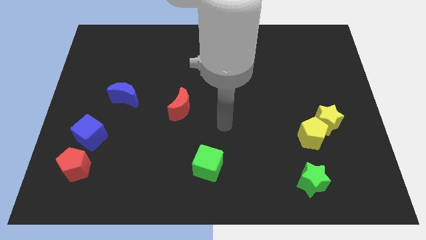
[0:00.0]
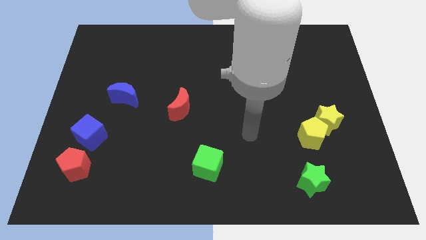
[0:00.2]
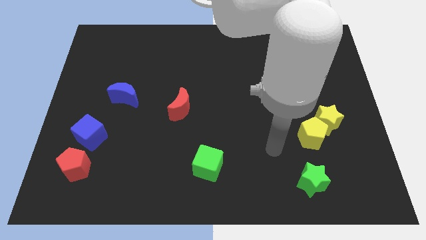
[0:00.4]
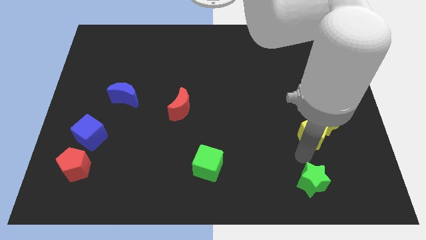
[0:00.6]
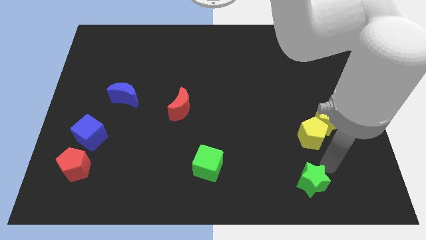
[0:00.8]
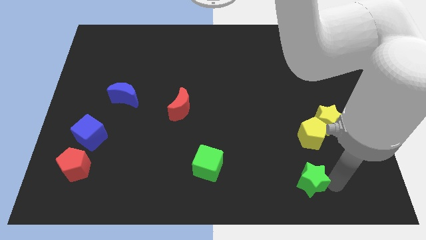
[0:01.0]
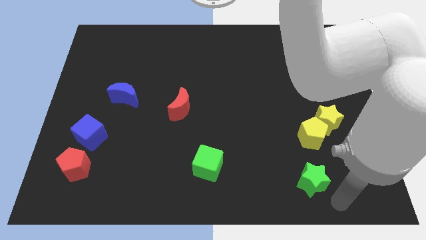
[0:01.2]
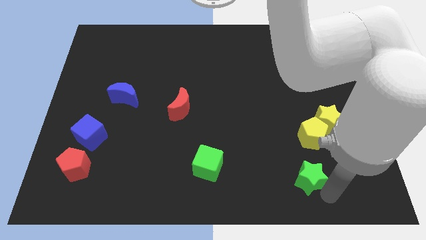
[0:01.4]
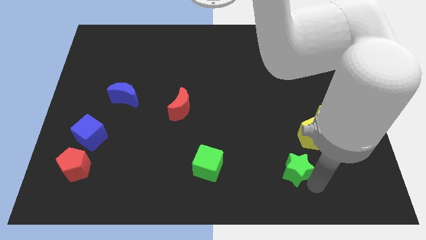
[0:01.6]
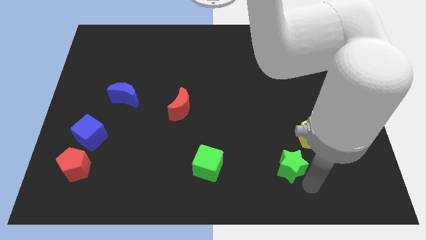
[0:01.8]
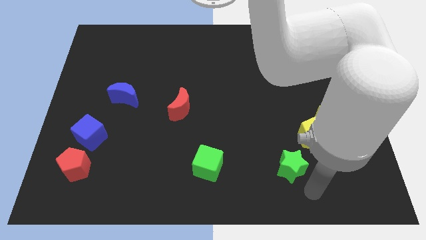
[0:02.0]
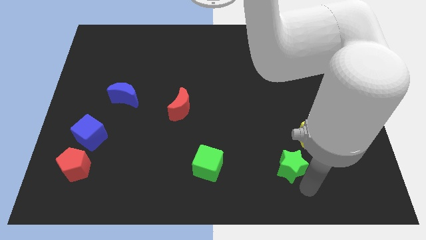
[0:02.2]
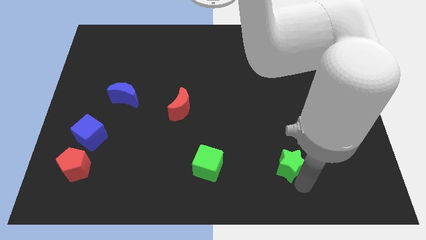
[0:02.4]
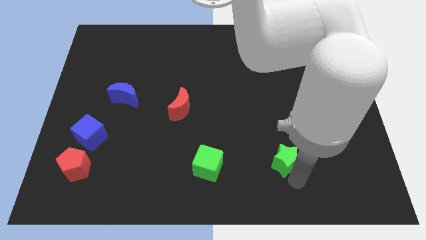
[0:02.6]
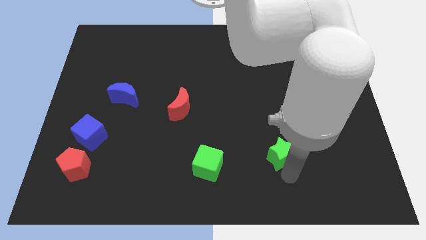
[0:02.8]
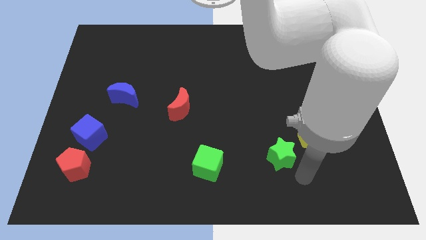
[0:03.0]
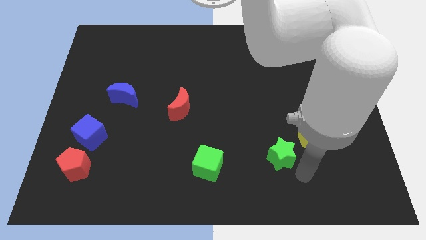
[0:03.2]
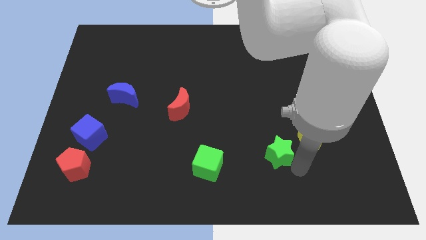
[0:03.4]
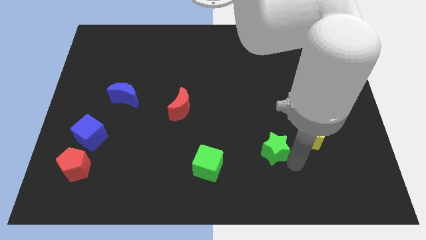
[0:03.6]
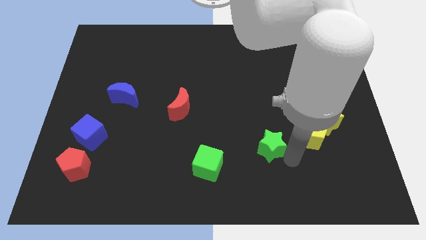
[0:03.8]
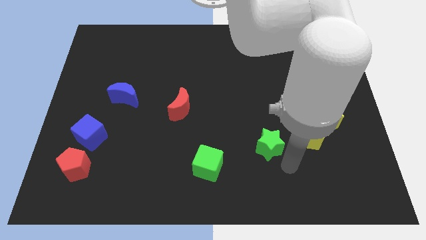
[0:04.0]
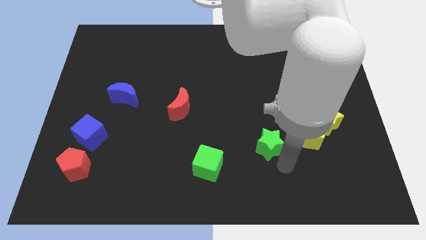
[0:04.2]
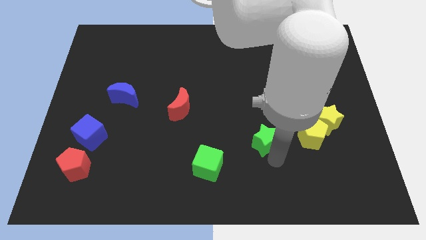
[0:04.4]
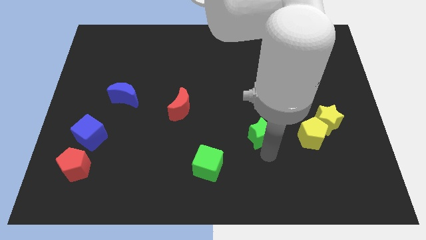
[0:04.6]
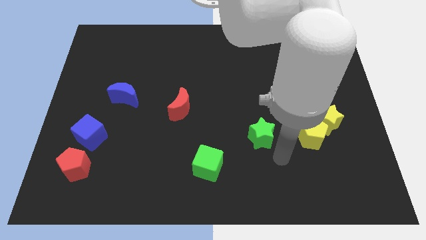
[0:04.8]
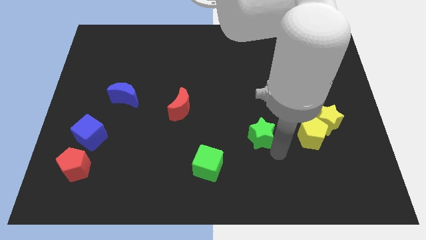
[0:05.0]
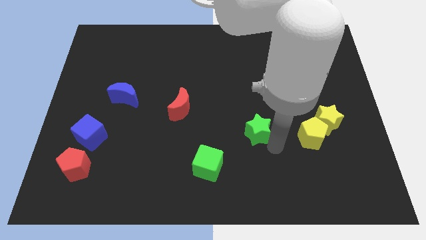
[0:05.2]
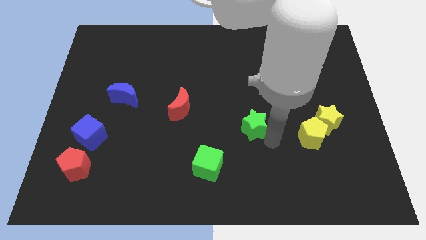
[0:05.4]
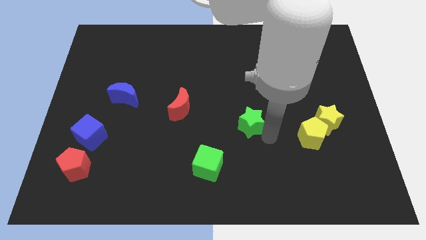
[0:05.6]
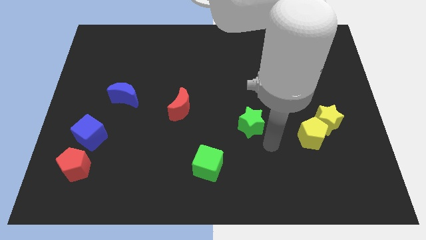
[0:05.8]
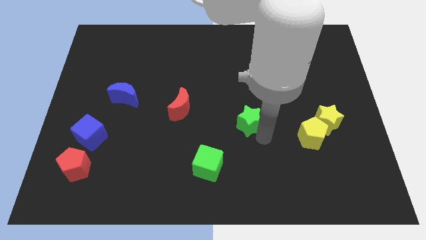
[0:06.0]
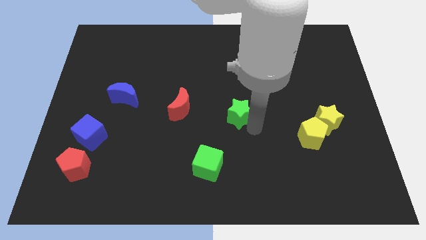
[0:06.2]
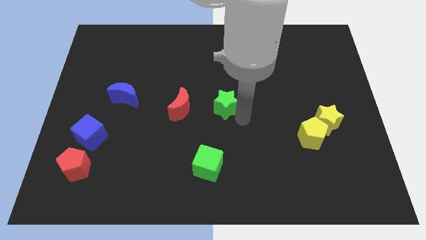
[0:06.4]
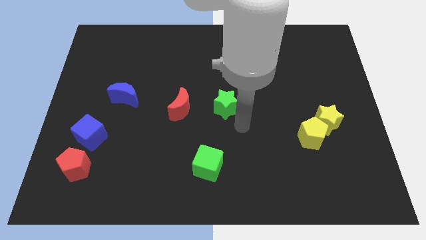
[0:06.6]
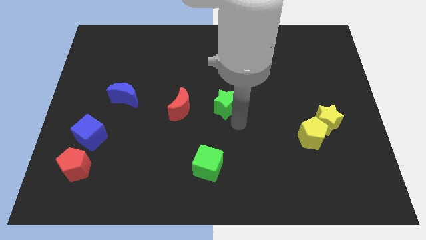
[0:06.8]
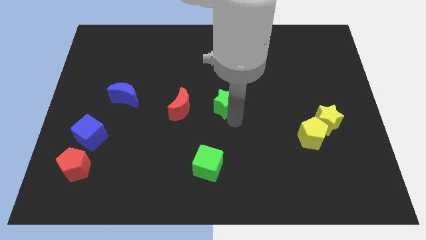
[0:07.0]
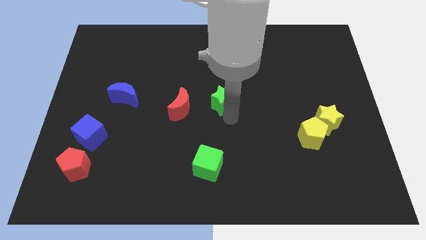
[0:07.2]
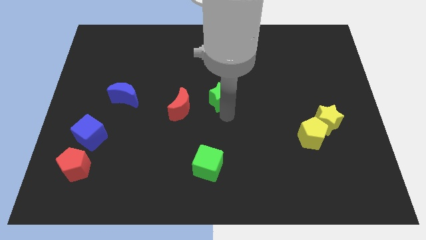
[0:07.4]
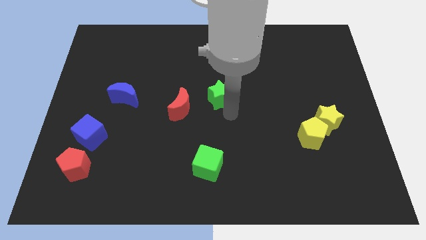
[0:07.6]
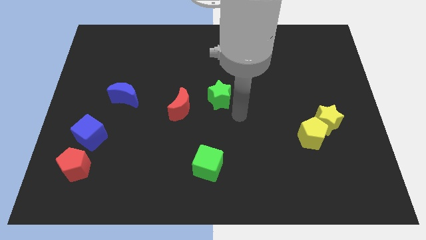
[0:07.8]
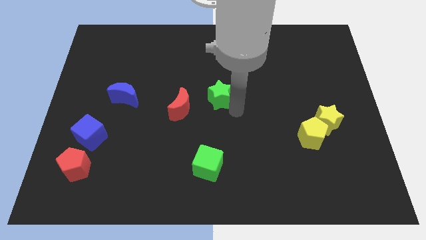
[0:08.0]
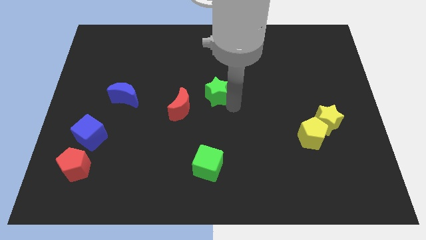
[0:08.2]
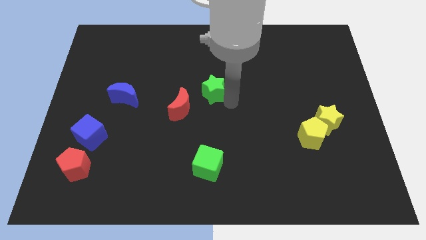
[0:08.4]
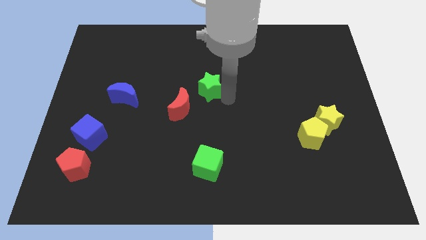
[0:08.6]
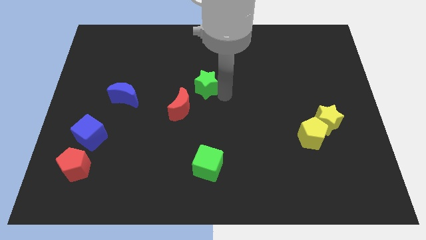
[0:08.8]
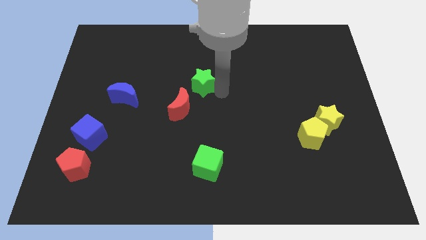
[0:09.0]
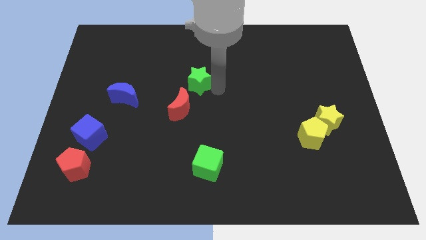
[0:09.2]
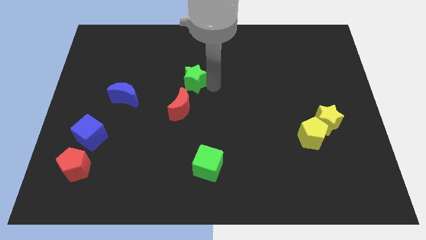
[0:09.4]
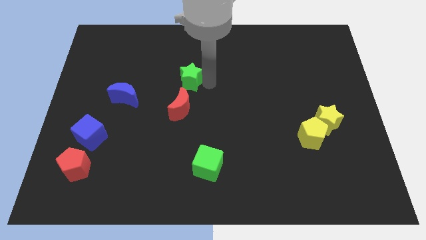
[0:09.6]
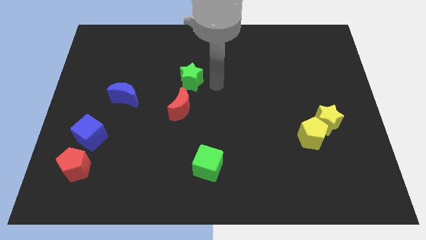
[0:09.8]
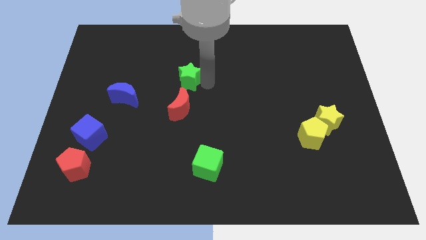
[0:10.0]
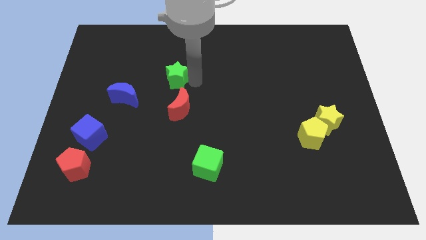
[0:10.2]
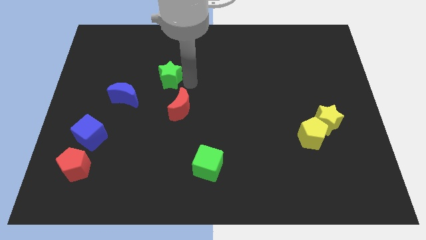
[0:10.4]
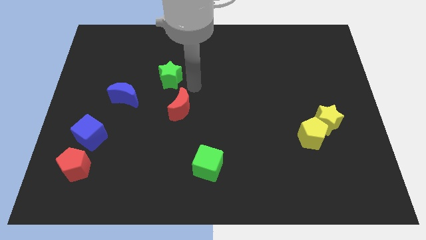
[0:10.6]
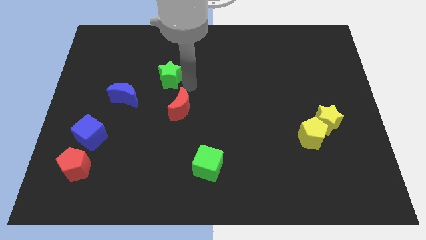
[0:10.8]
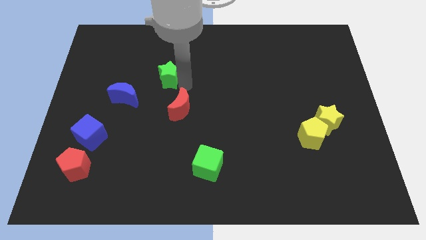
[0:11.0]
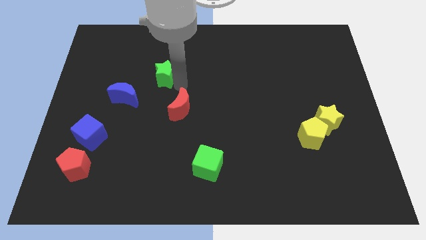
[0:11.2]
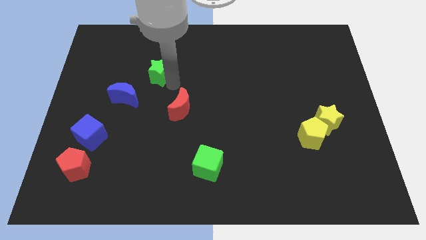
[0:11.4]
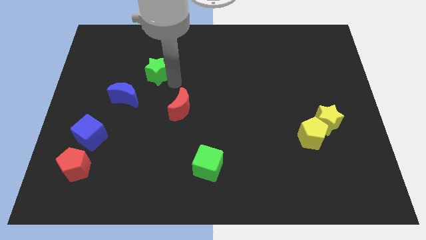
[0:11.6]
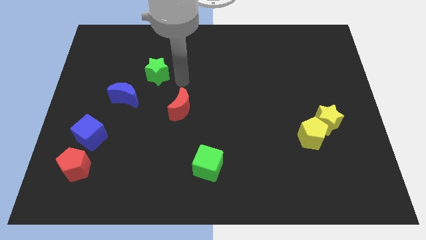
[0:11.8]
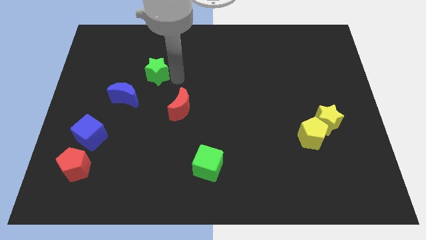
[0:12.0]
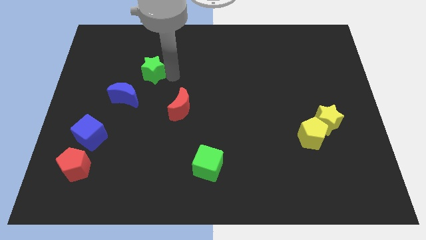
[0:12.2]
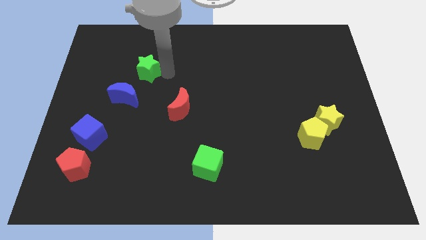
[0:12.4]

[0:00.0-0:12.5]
push the green star to the top of the blue moon

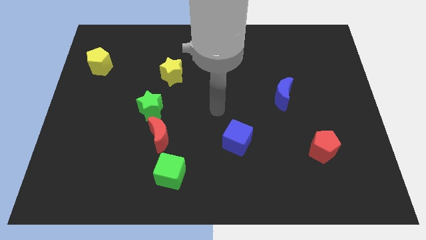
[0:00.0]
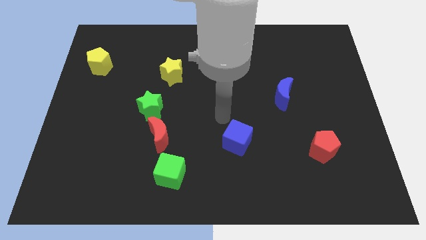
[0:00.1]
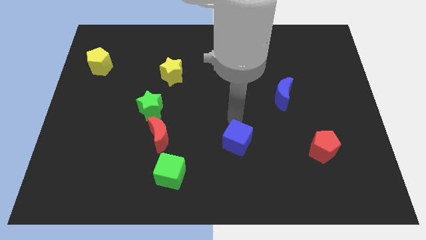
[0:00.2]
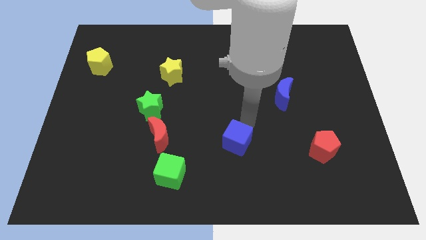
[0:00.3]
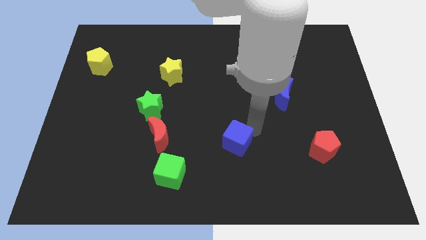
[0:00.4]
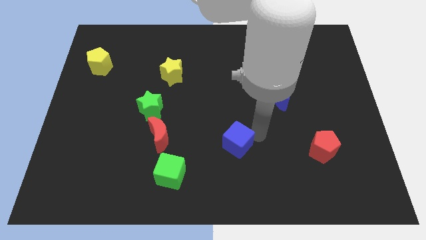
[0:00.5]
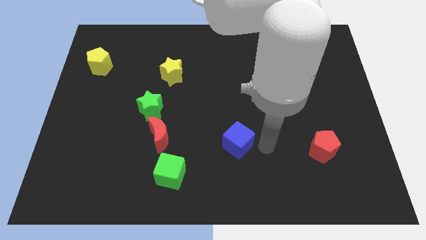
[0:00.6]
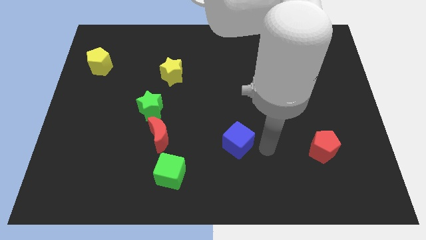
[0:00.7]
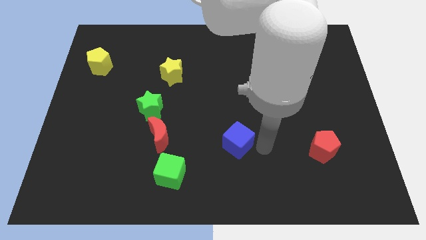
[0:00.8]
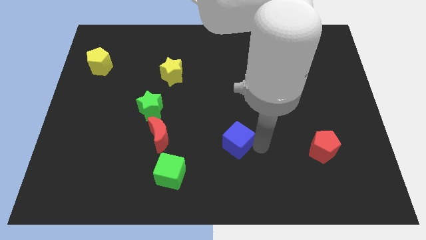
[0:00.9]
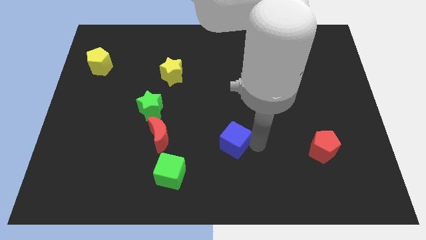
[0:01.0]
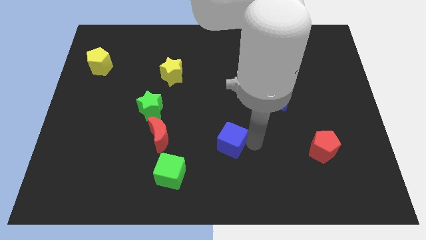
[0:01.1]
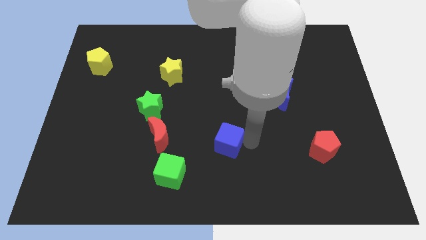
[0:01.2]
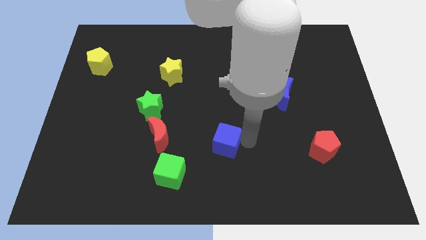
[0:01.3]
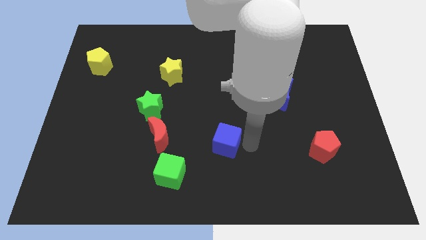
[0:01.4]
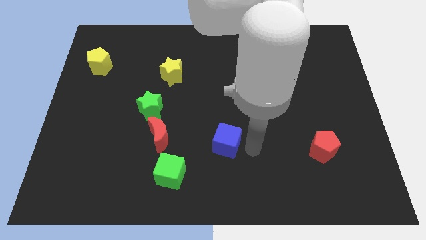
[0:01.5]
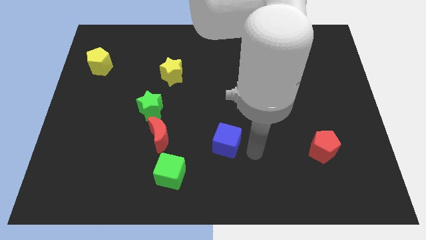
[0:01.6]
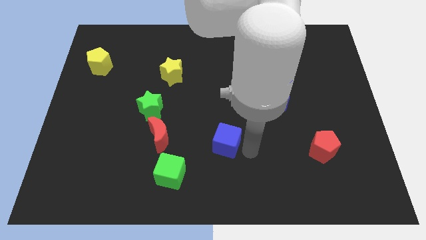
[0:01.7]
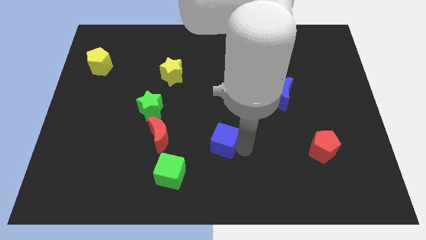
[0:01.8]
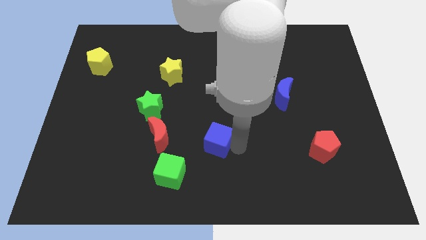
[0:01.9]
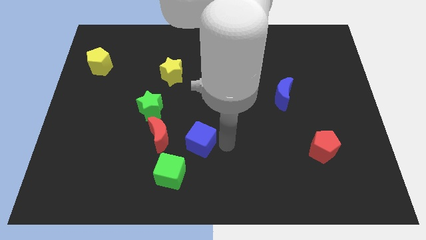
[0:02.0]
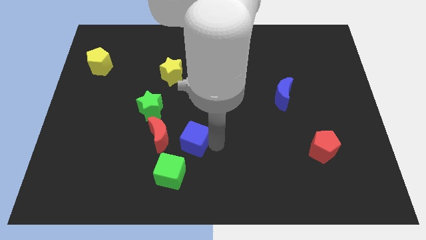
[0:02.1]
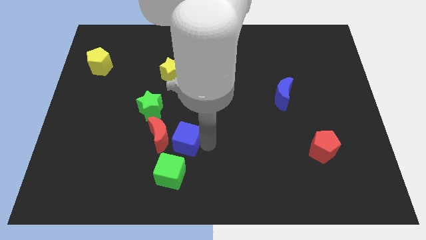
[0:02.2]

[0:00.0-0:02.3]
move the blue cube diagonally down and to the right of the green star
